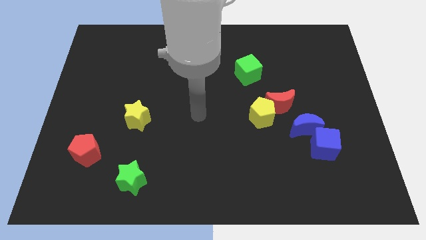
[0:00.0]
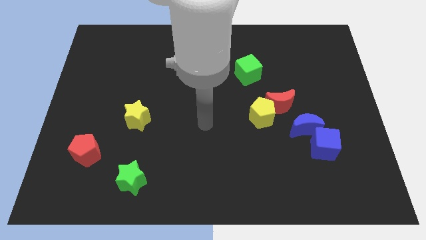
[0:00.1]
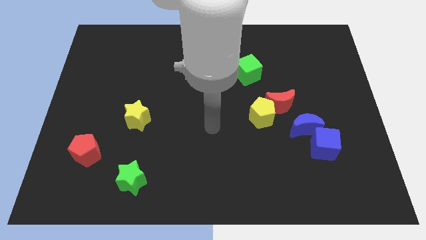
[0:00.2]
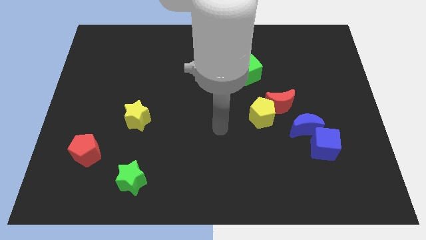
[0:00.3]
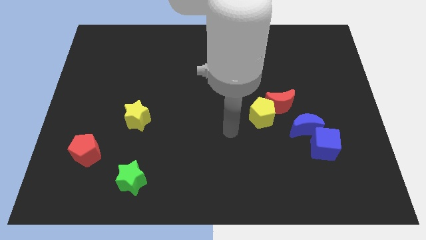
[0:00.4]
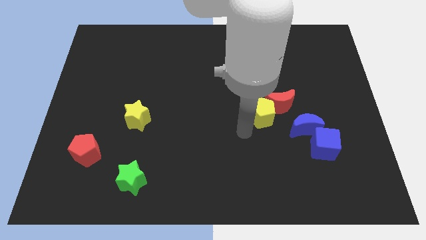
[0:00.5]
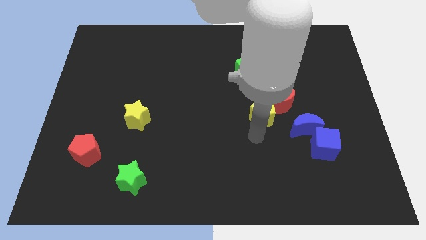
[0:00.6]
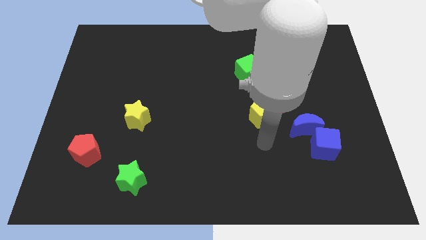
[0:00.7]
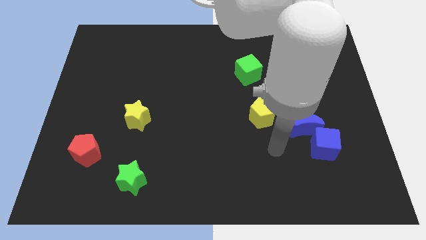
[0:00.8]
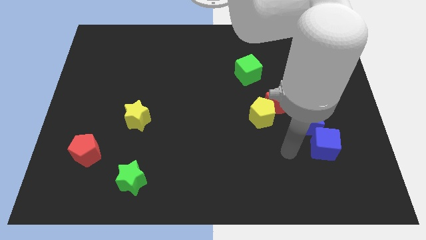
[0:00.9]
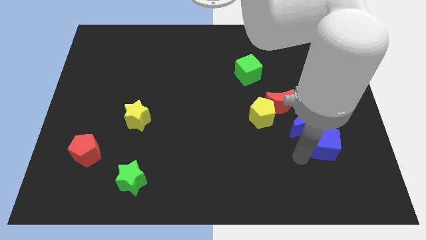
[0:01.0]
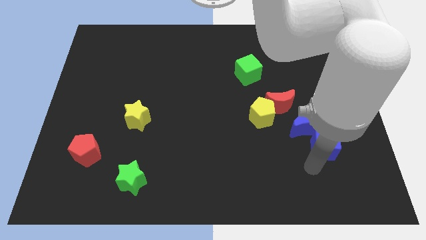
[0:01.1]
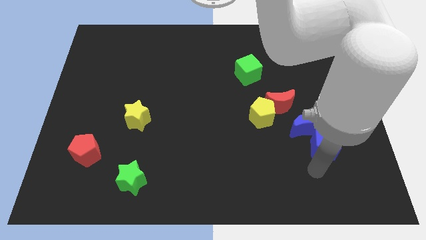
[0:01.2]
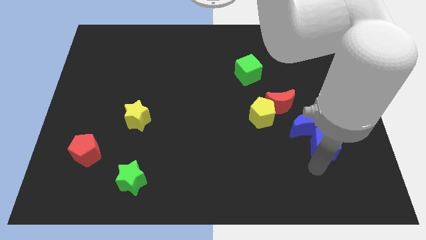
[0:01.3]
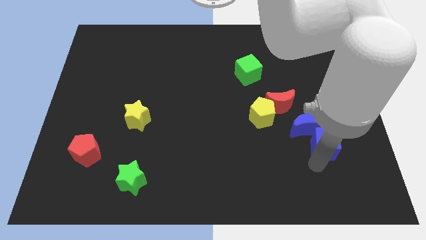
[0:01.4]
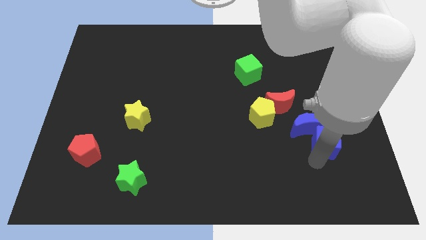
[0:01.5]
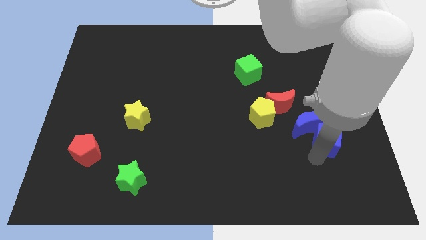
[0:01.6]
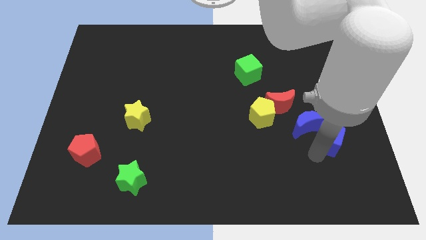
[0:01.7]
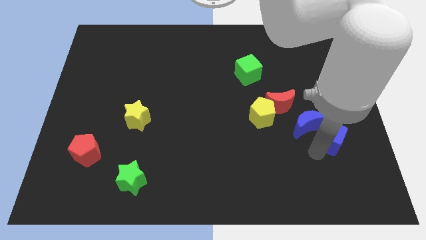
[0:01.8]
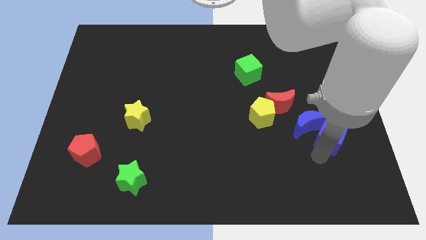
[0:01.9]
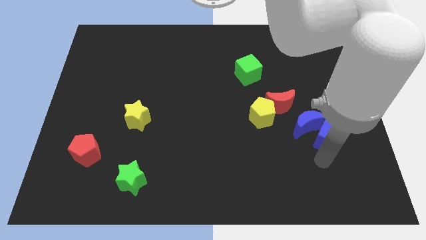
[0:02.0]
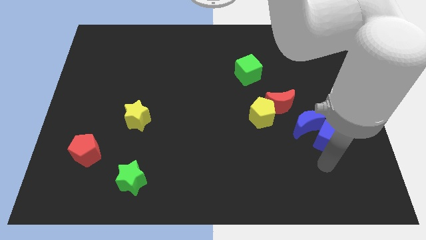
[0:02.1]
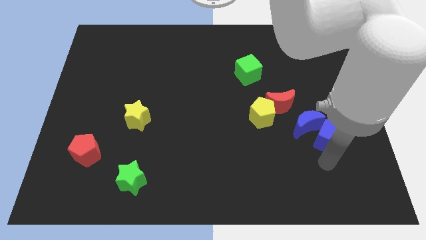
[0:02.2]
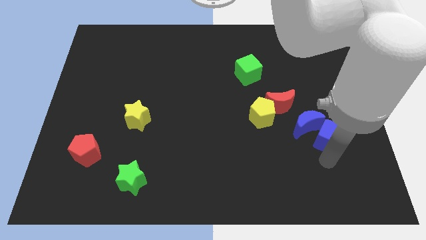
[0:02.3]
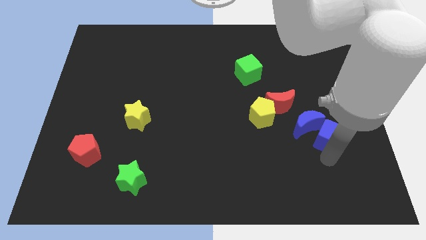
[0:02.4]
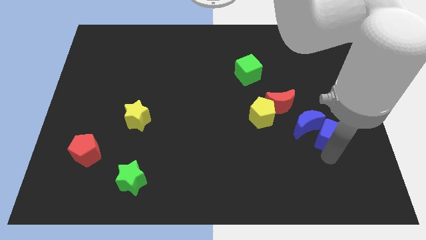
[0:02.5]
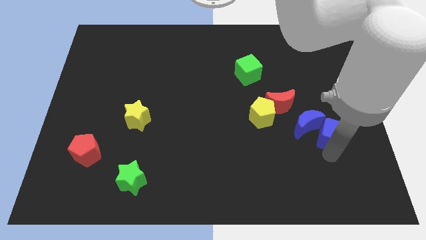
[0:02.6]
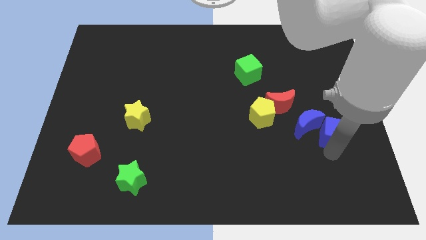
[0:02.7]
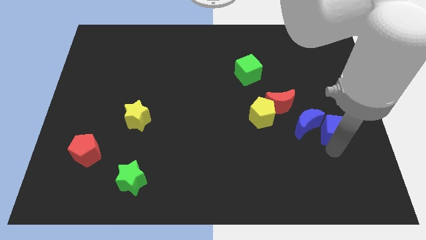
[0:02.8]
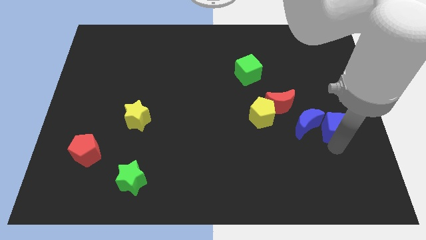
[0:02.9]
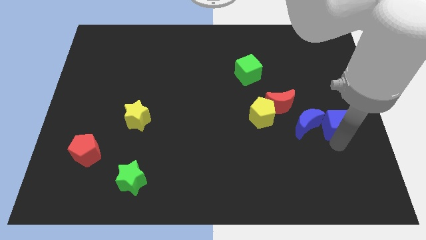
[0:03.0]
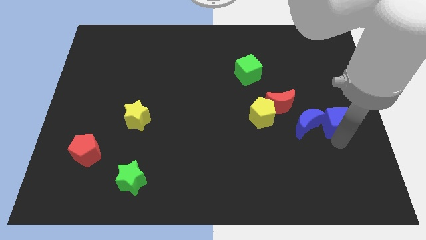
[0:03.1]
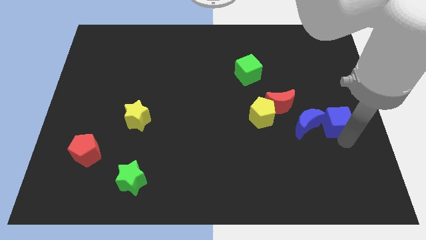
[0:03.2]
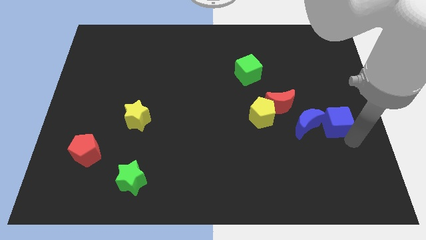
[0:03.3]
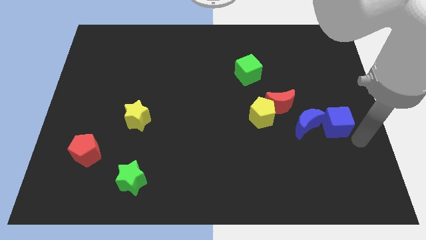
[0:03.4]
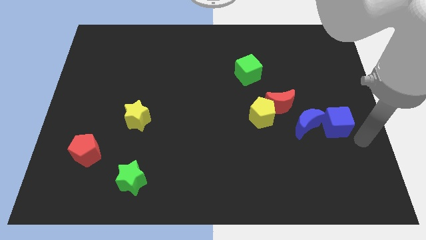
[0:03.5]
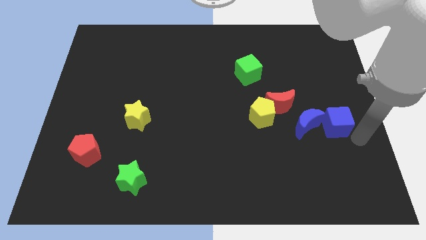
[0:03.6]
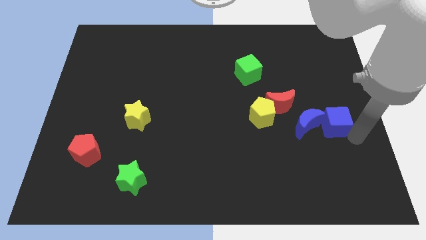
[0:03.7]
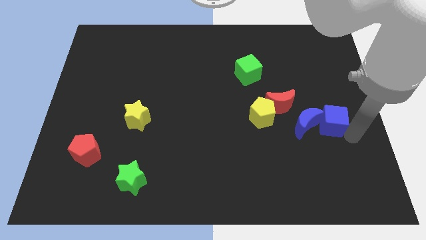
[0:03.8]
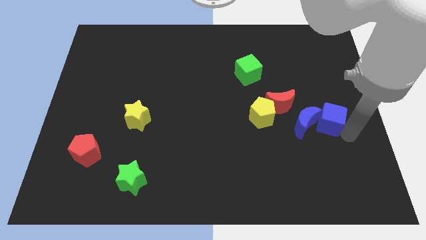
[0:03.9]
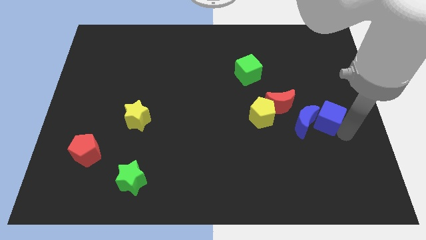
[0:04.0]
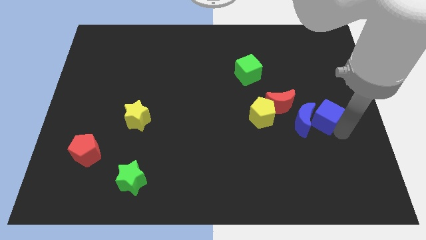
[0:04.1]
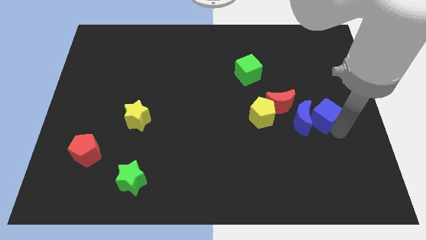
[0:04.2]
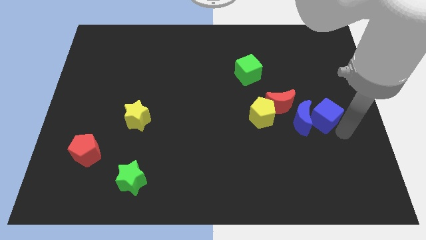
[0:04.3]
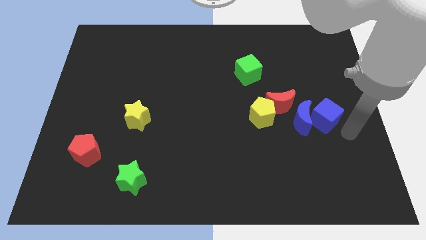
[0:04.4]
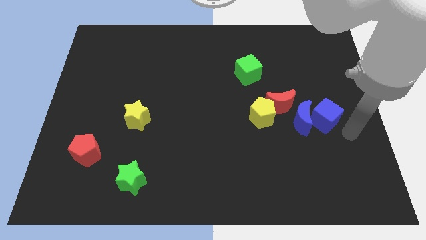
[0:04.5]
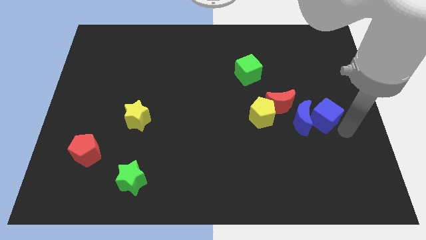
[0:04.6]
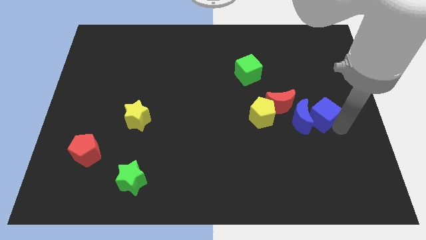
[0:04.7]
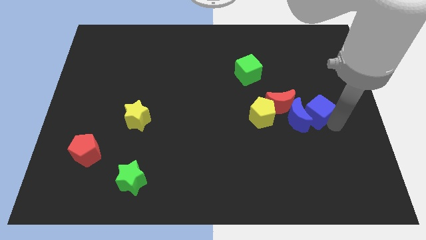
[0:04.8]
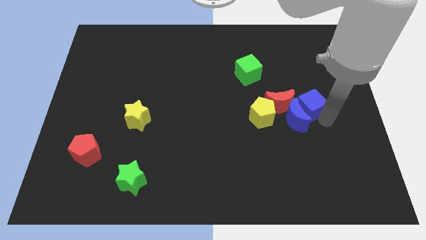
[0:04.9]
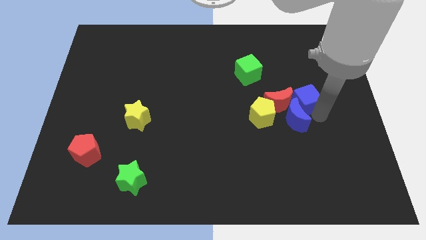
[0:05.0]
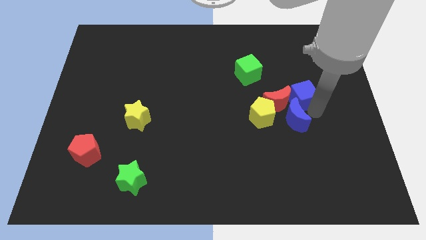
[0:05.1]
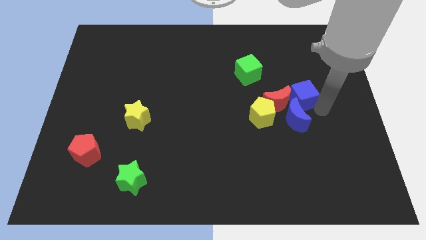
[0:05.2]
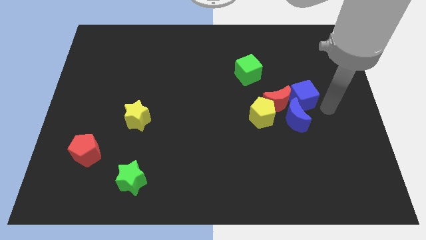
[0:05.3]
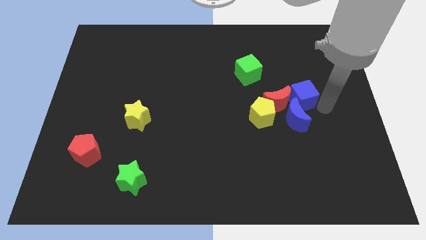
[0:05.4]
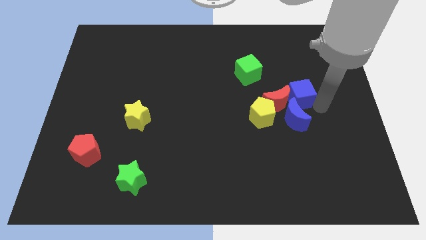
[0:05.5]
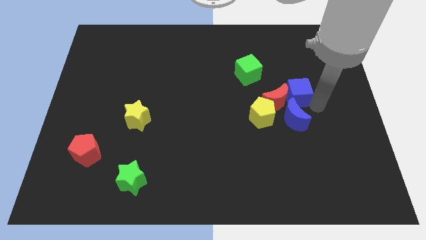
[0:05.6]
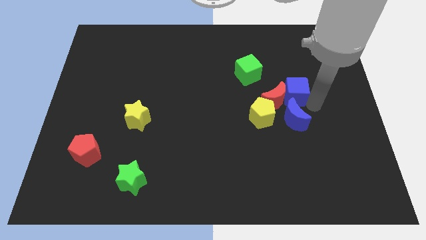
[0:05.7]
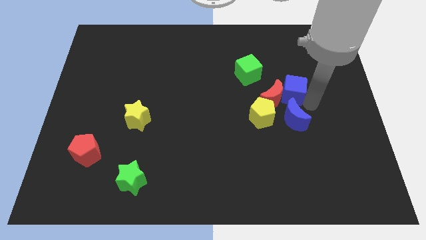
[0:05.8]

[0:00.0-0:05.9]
slide the blue cube to the bottom right of the green cube
